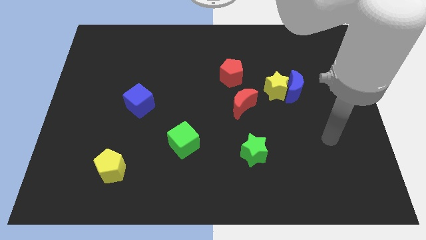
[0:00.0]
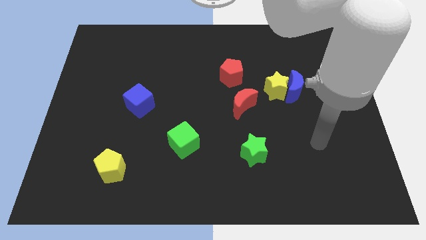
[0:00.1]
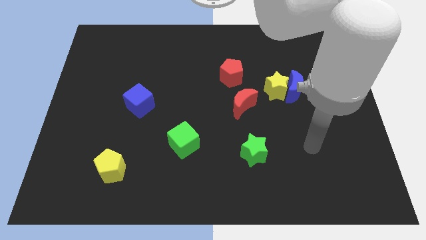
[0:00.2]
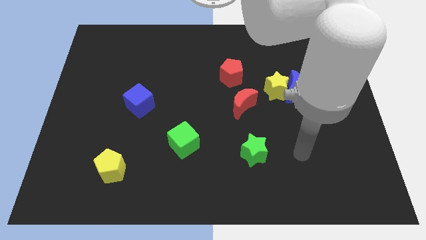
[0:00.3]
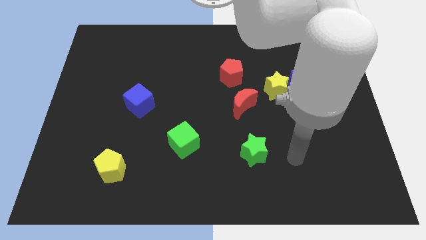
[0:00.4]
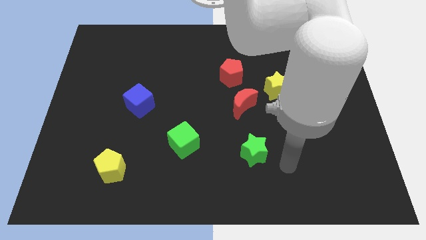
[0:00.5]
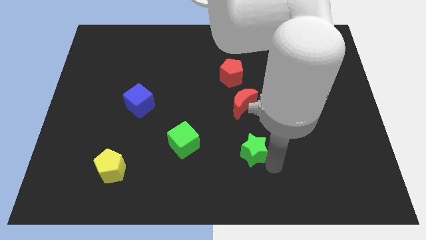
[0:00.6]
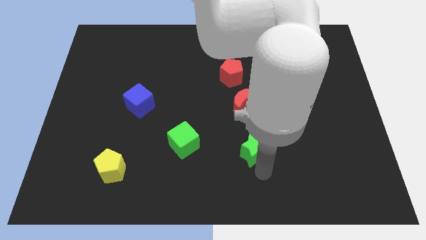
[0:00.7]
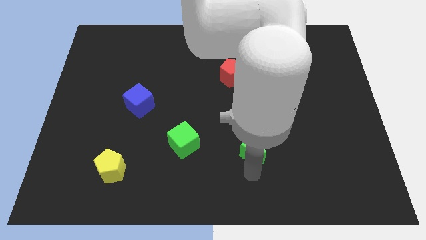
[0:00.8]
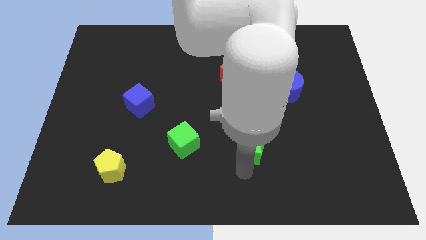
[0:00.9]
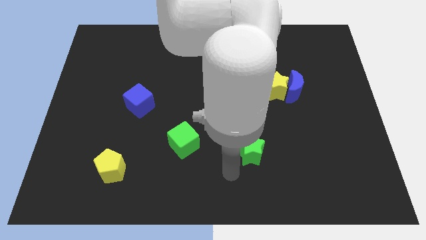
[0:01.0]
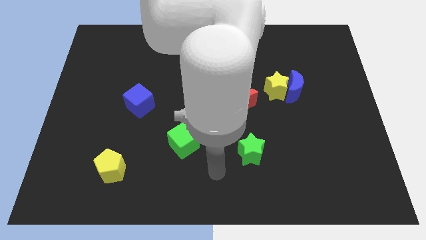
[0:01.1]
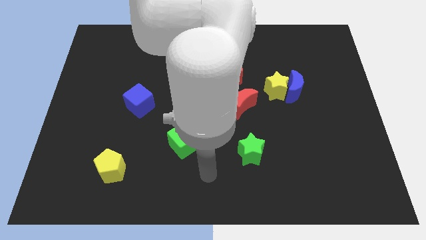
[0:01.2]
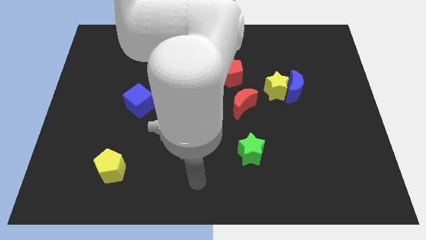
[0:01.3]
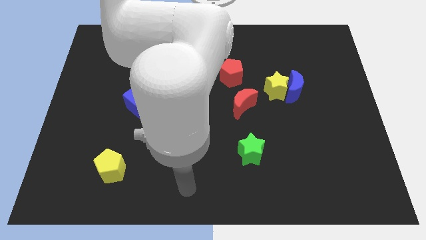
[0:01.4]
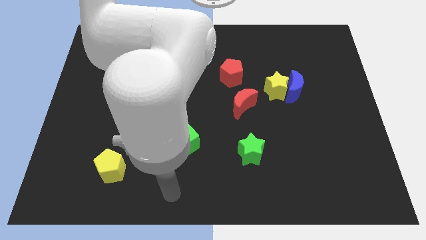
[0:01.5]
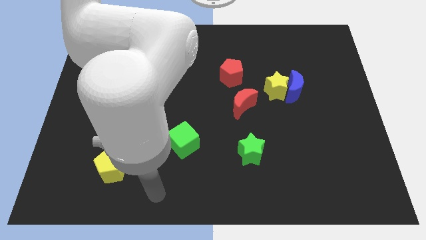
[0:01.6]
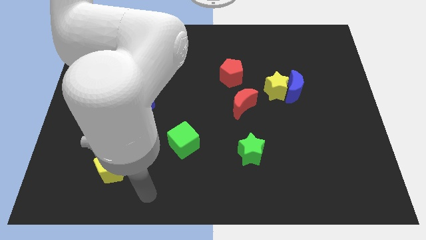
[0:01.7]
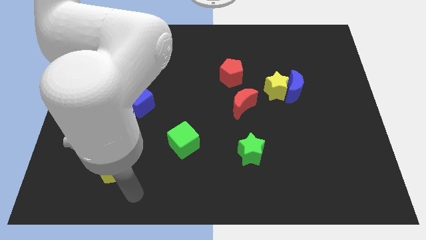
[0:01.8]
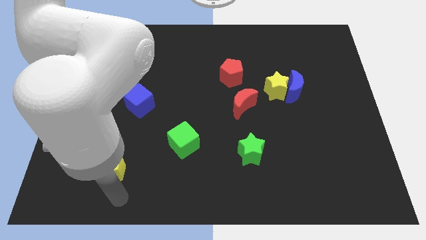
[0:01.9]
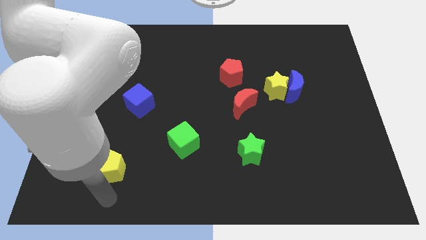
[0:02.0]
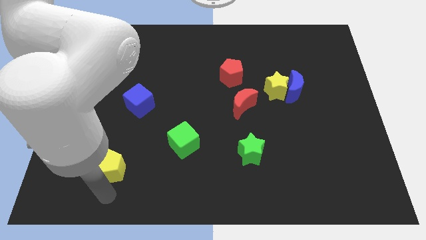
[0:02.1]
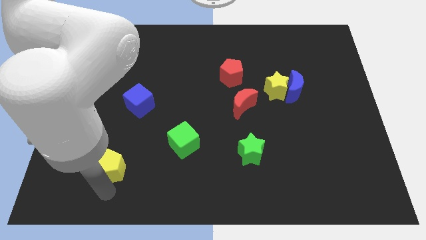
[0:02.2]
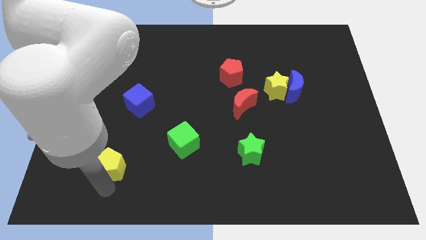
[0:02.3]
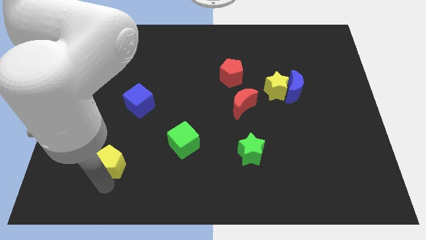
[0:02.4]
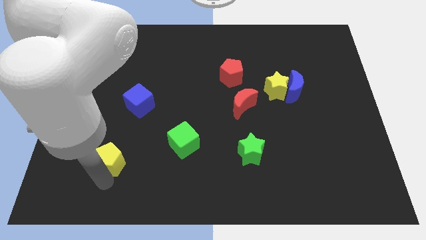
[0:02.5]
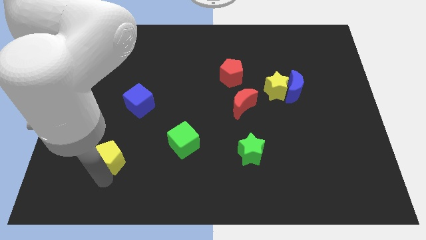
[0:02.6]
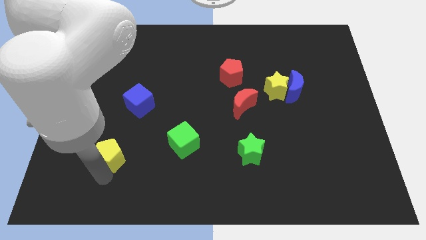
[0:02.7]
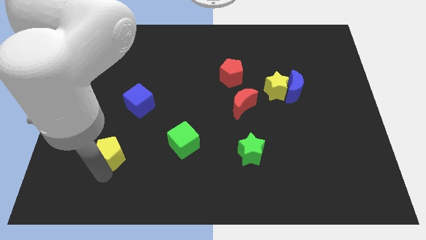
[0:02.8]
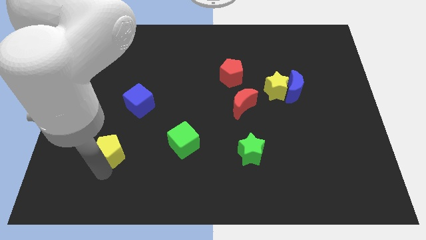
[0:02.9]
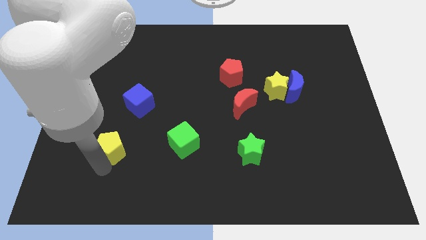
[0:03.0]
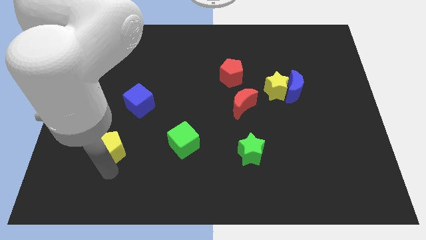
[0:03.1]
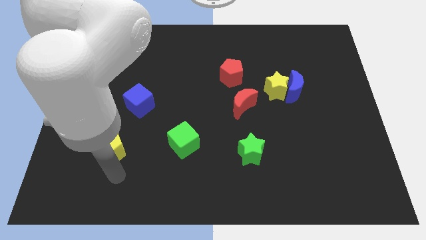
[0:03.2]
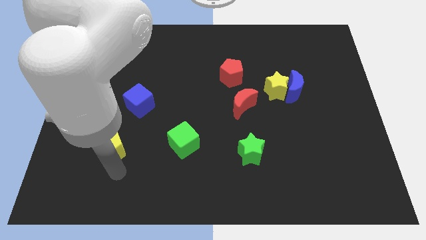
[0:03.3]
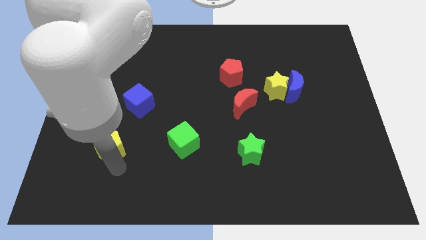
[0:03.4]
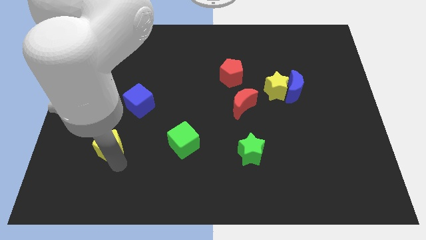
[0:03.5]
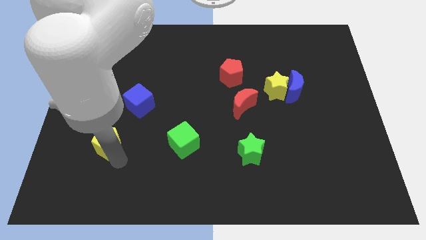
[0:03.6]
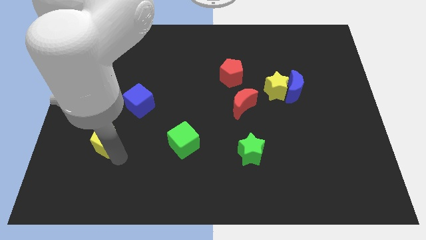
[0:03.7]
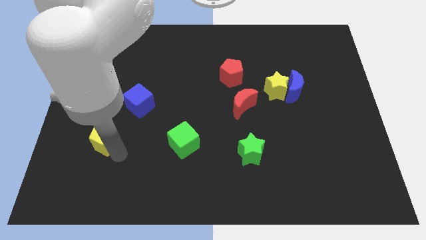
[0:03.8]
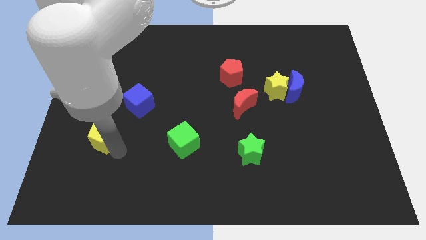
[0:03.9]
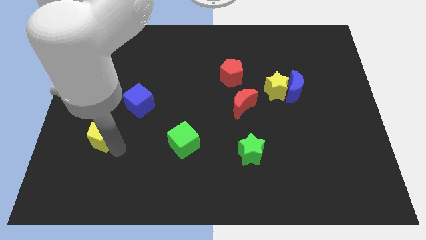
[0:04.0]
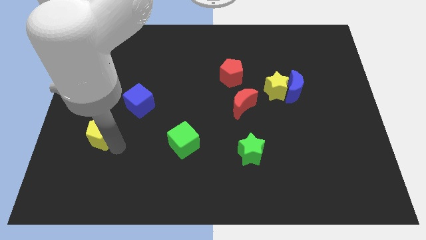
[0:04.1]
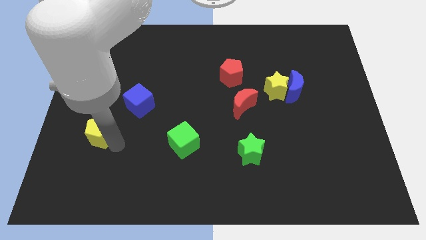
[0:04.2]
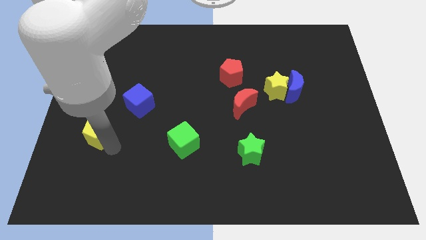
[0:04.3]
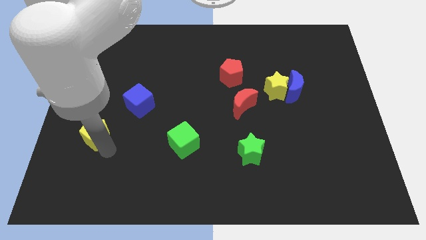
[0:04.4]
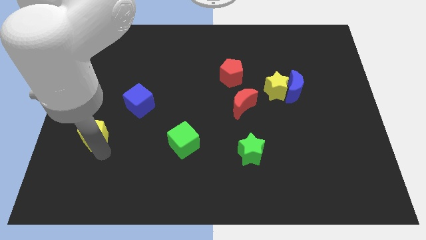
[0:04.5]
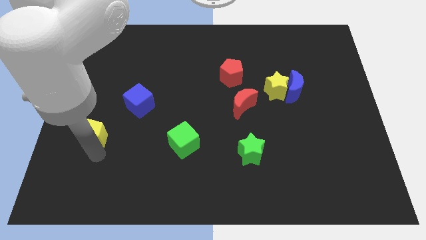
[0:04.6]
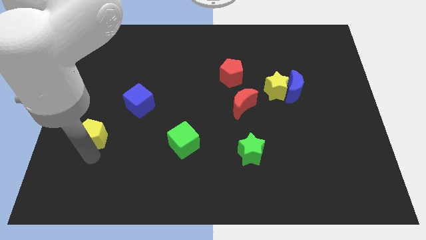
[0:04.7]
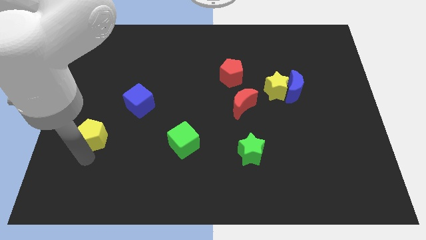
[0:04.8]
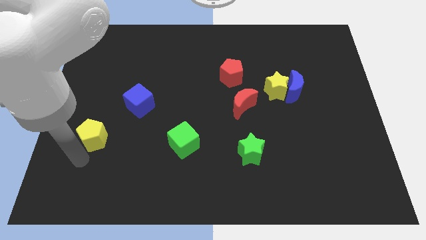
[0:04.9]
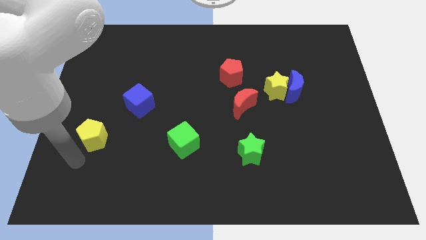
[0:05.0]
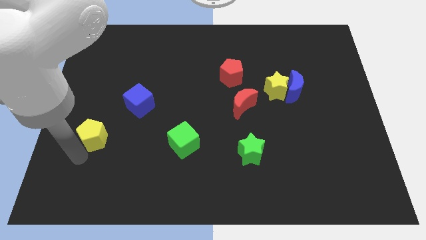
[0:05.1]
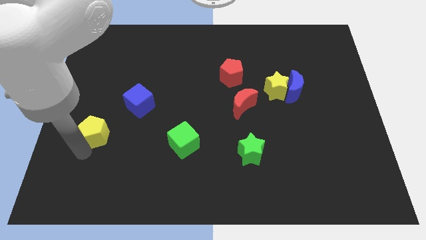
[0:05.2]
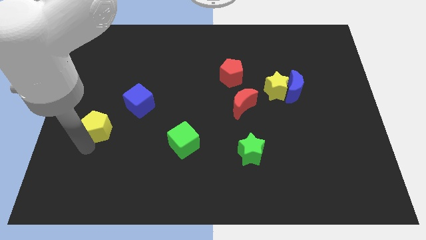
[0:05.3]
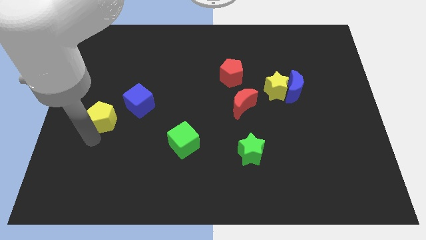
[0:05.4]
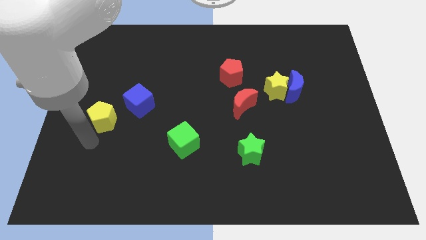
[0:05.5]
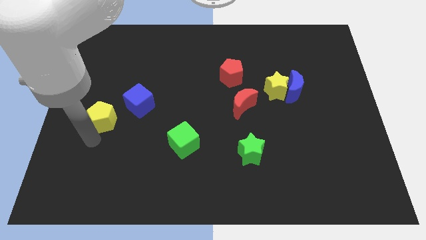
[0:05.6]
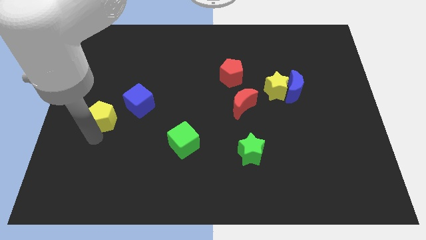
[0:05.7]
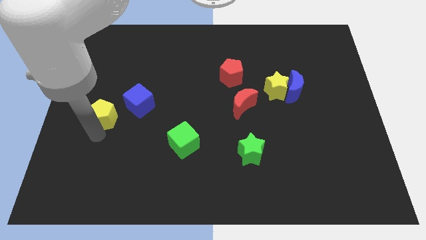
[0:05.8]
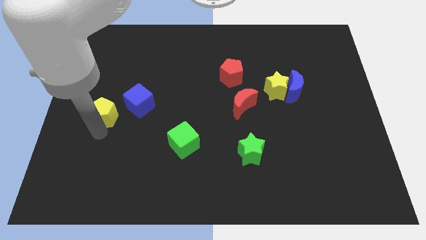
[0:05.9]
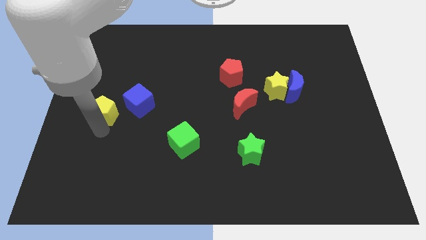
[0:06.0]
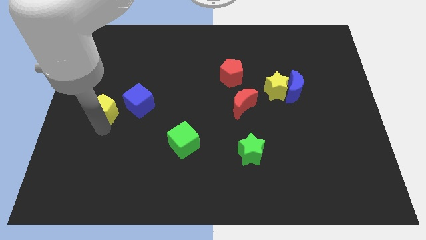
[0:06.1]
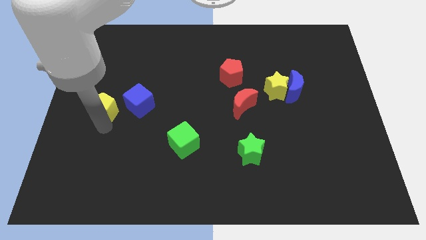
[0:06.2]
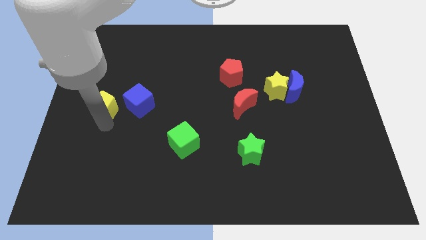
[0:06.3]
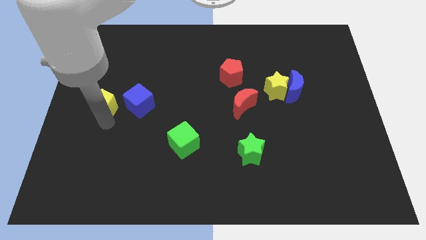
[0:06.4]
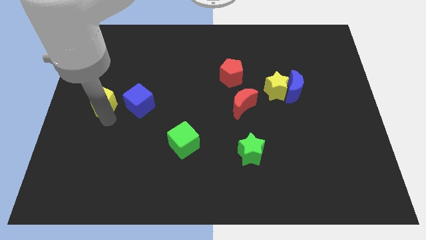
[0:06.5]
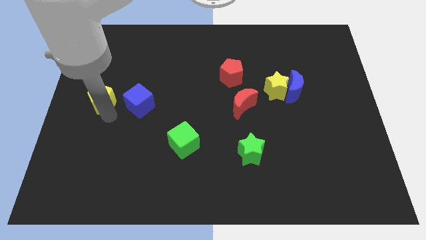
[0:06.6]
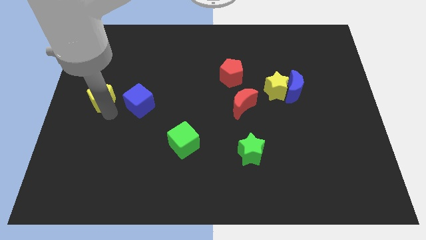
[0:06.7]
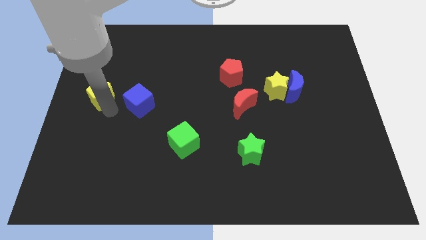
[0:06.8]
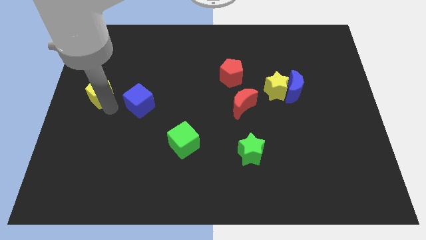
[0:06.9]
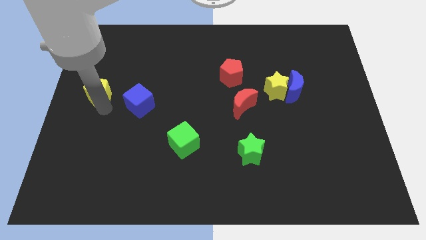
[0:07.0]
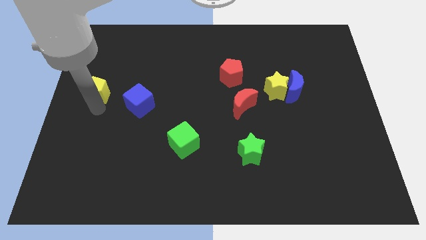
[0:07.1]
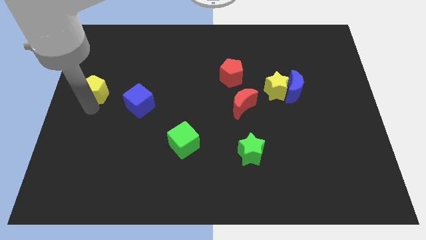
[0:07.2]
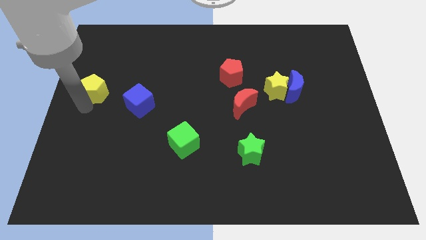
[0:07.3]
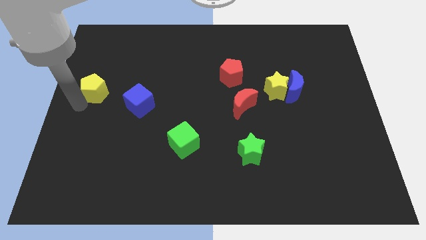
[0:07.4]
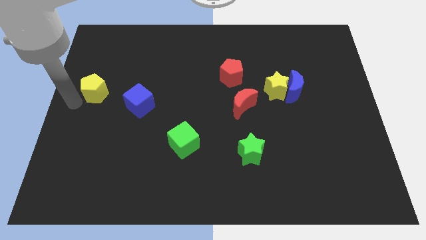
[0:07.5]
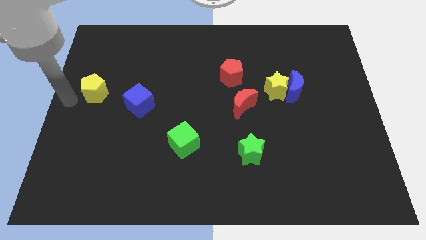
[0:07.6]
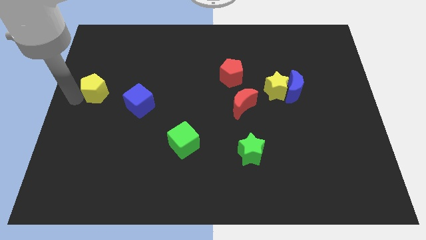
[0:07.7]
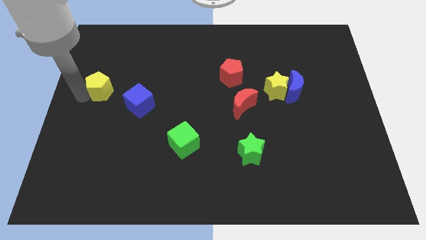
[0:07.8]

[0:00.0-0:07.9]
push the yellow pentagon upwards
